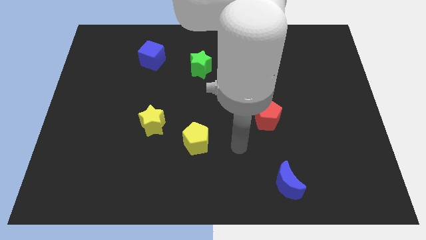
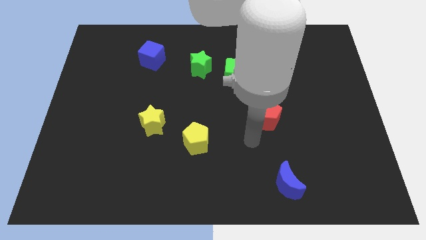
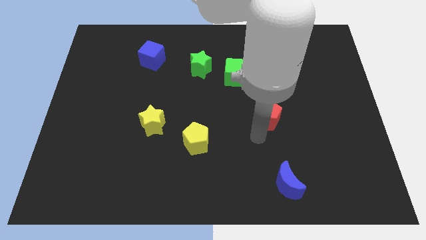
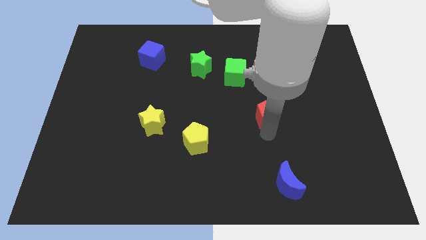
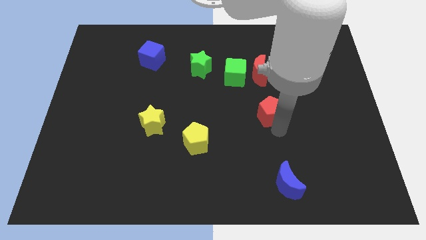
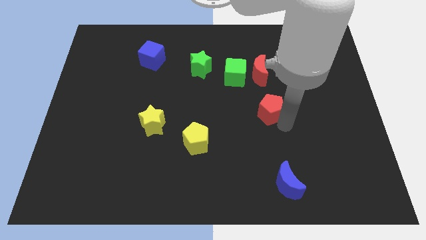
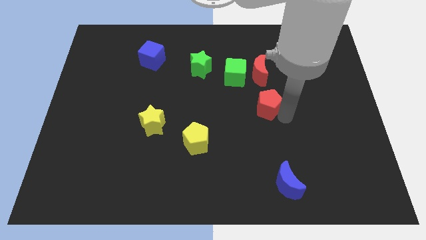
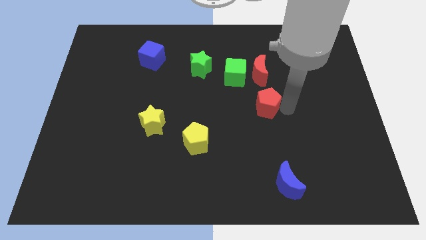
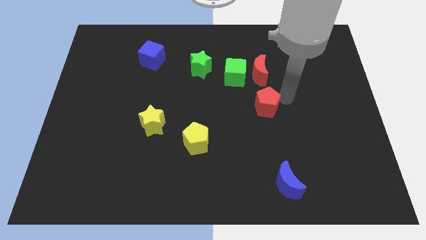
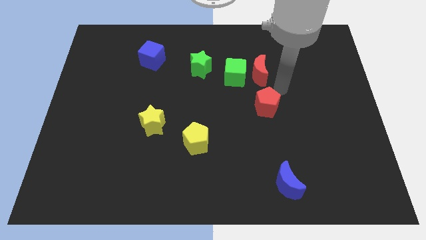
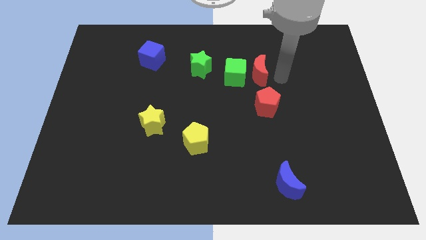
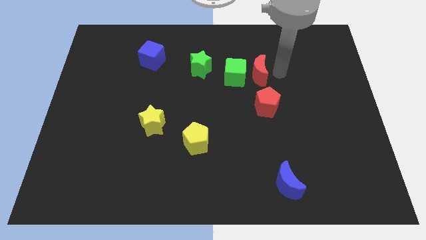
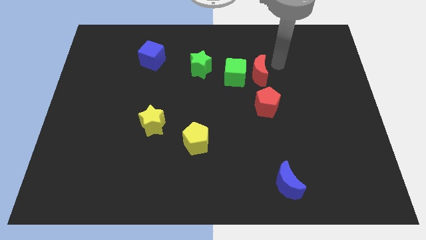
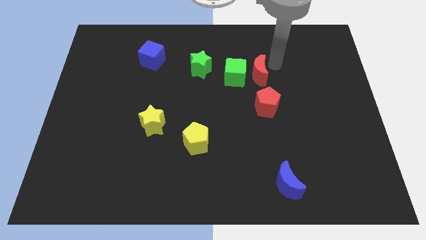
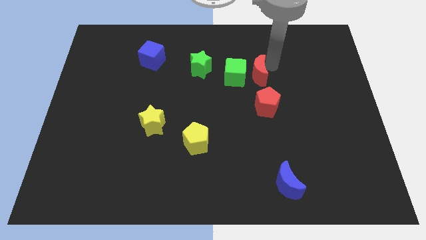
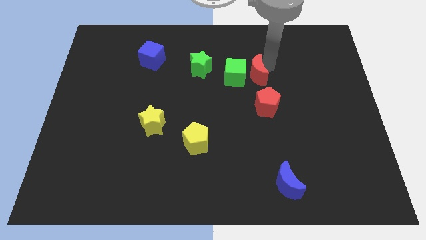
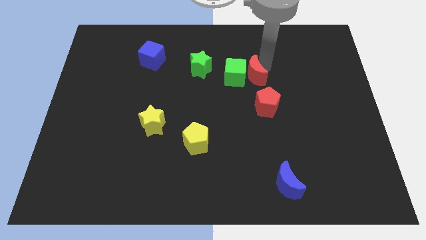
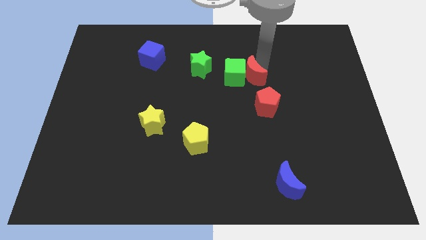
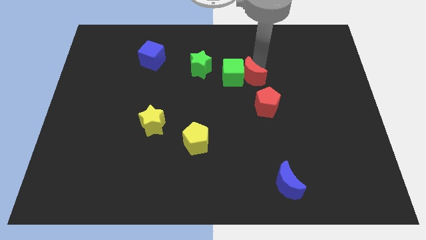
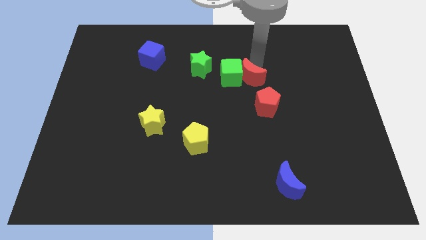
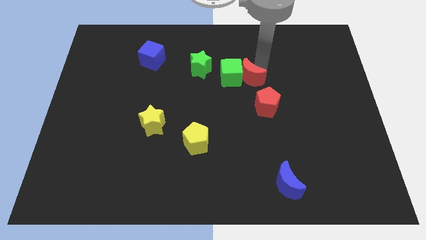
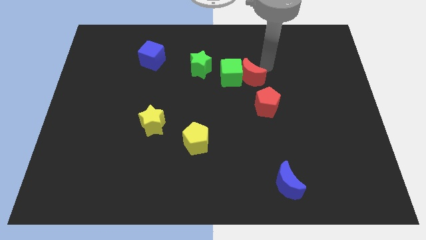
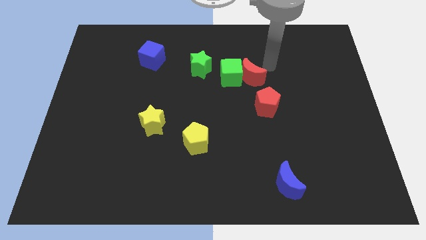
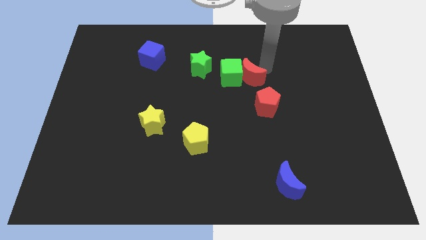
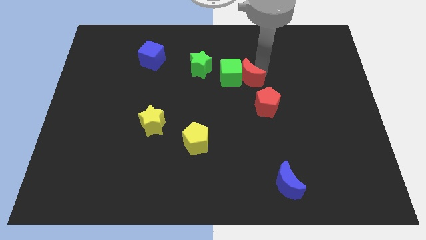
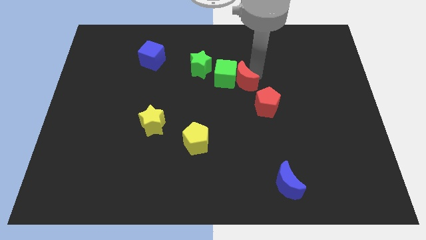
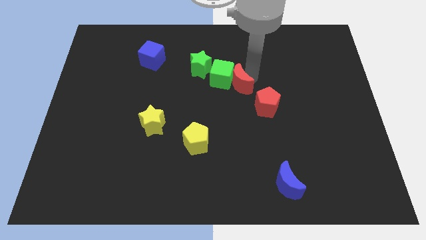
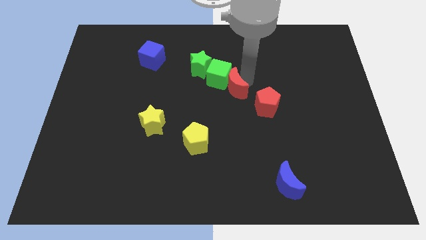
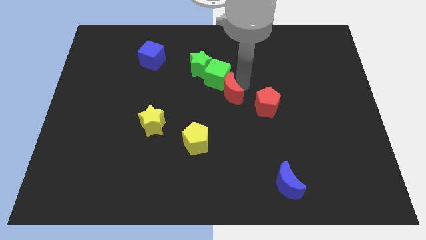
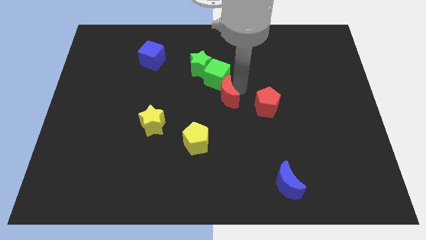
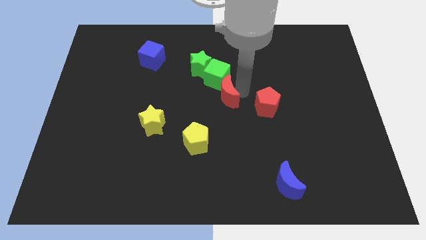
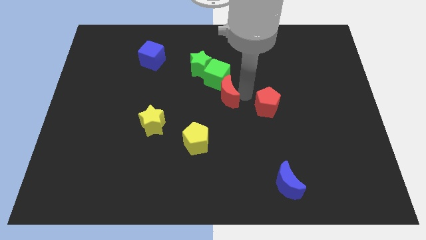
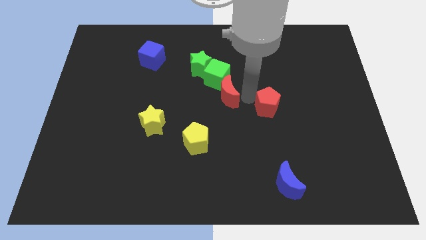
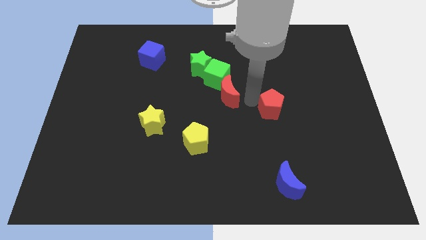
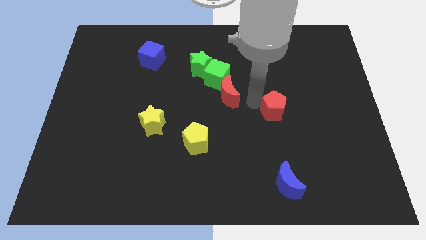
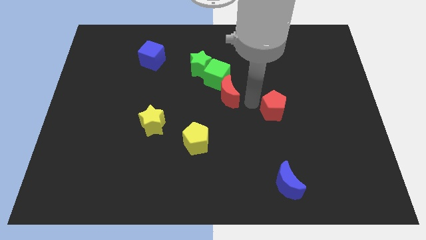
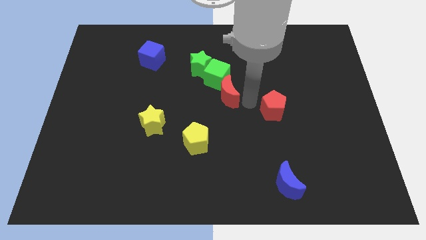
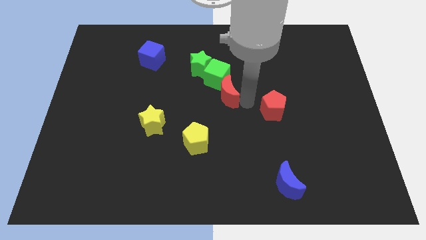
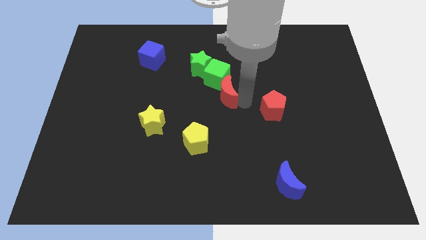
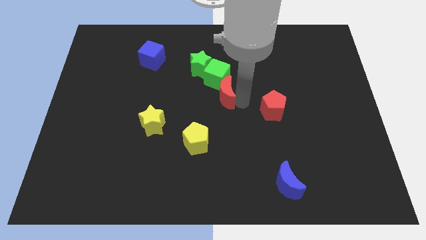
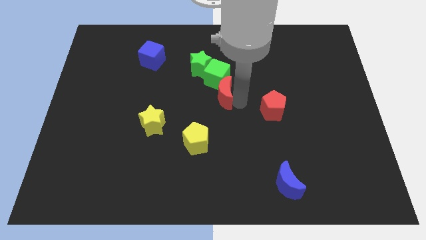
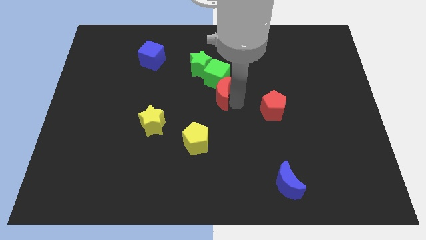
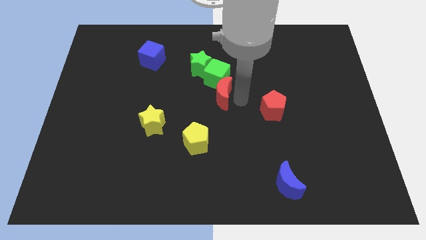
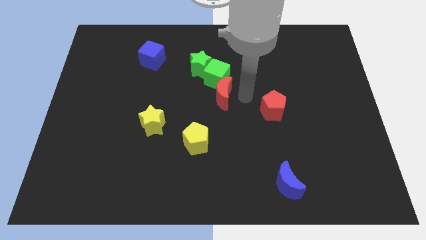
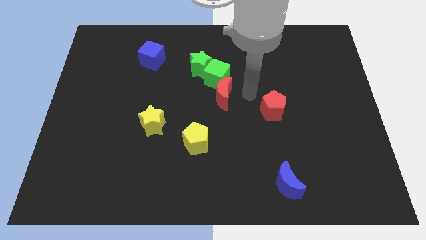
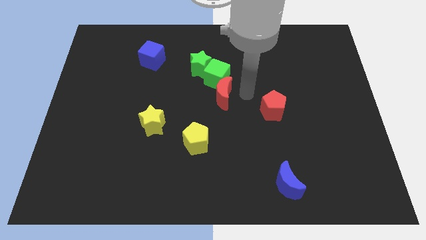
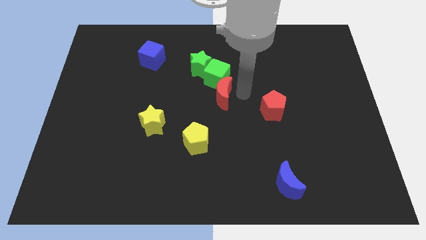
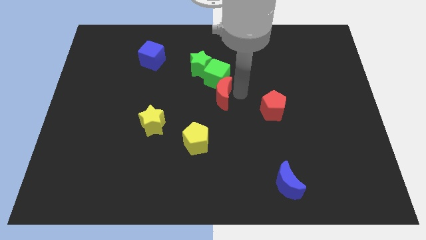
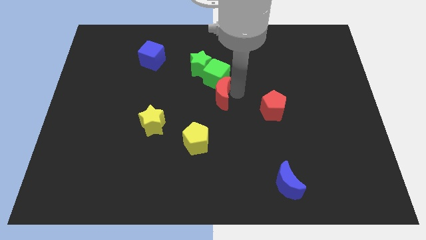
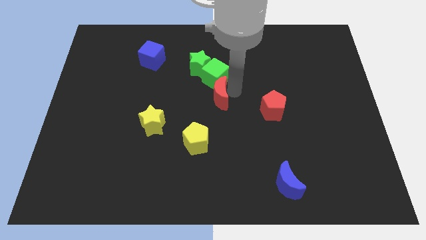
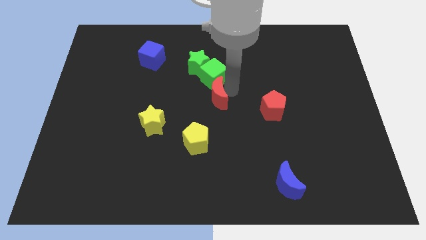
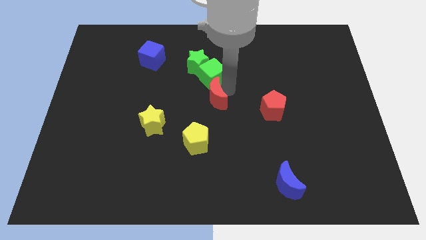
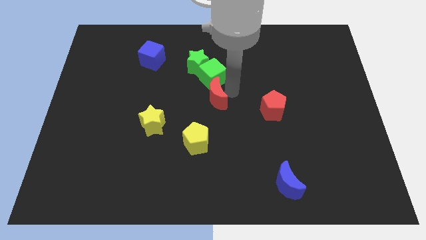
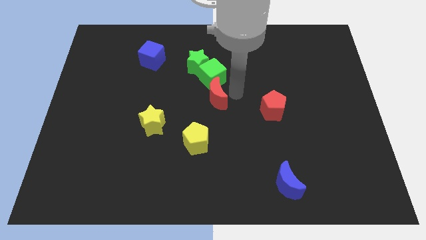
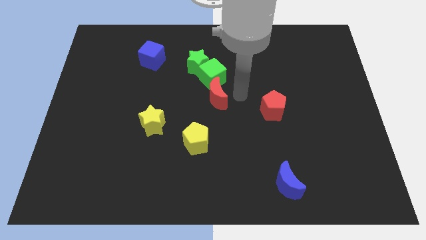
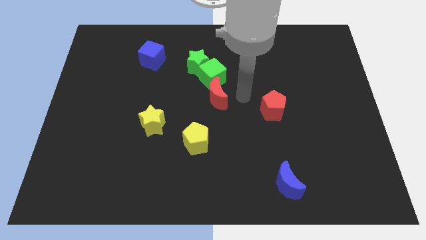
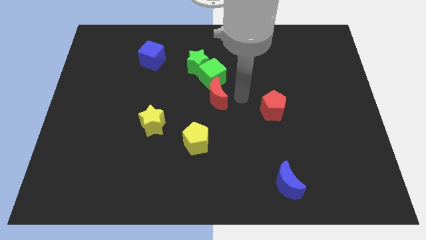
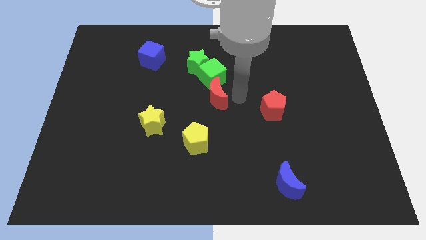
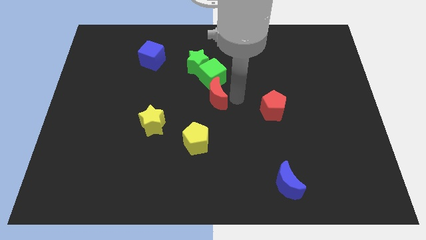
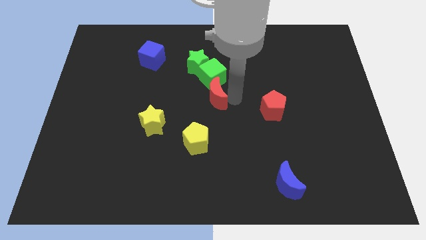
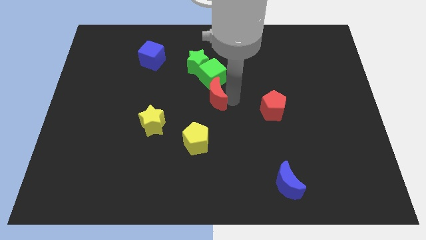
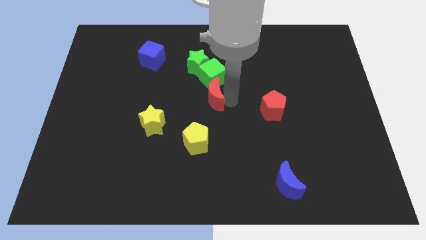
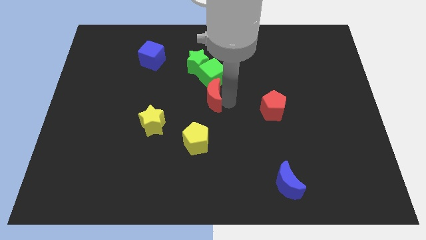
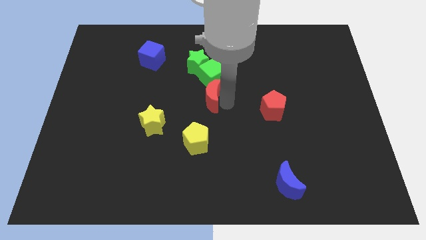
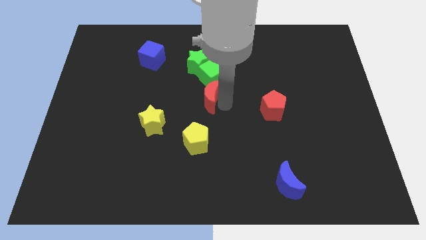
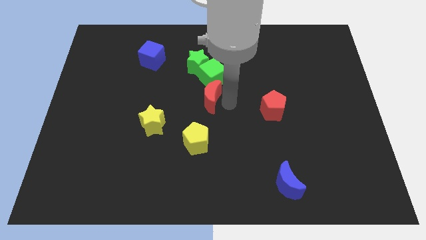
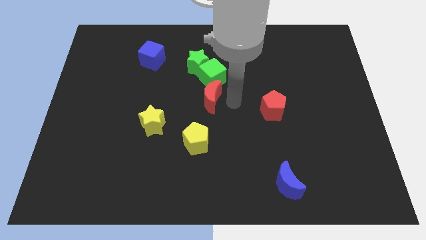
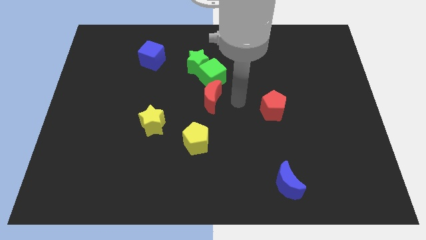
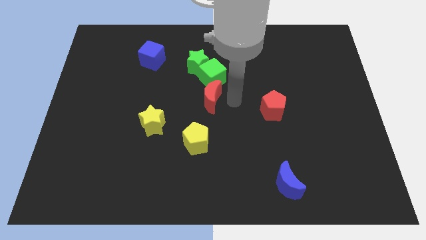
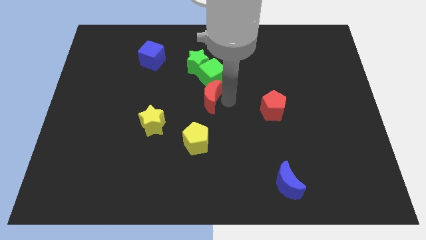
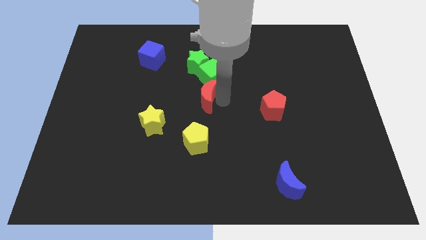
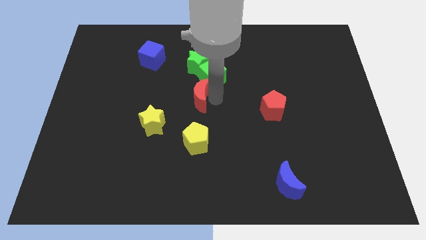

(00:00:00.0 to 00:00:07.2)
slide the red moon diagonally up and to the right of the yellow star
